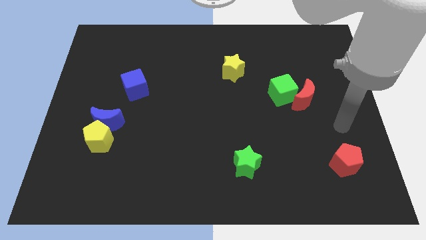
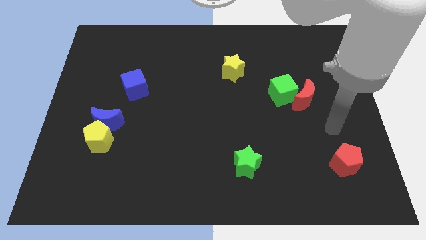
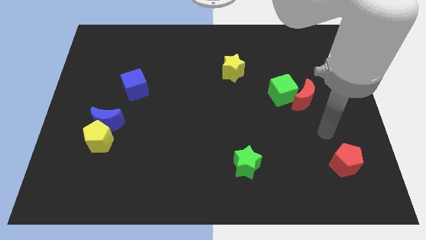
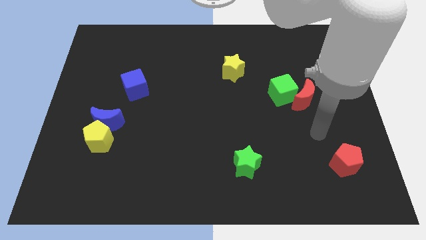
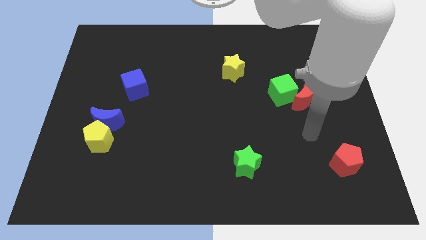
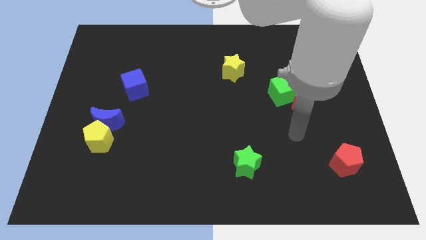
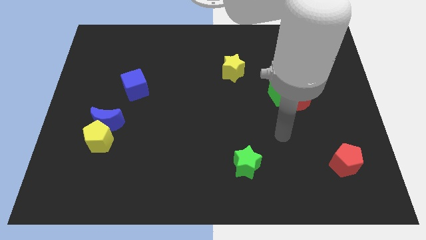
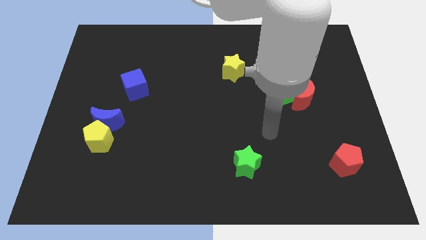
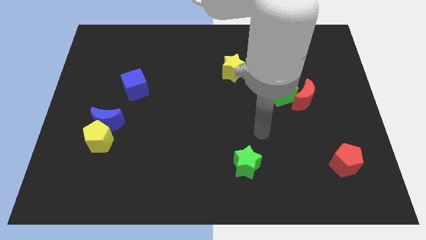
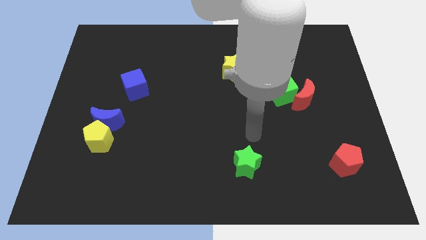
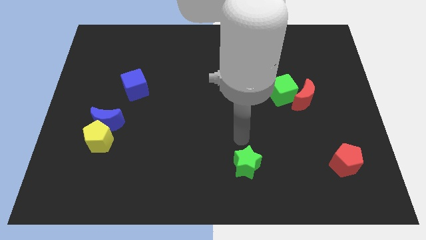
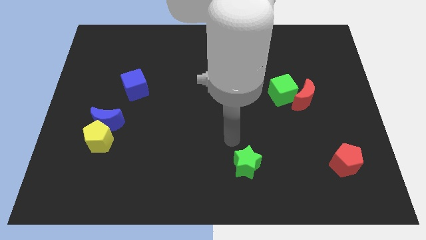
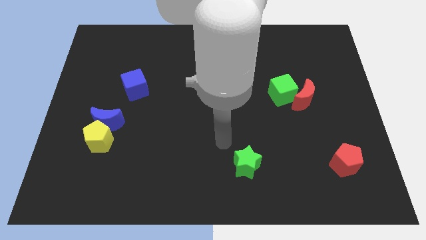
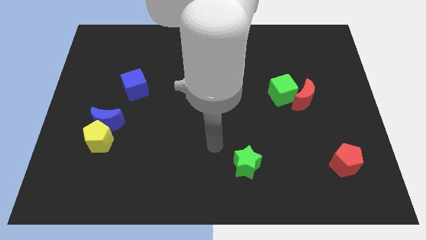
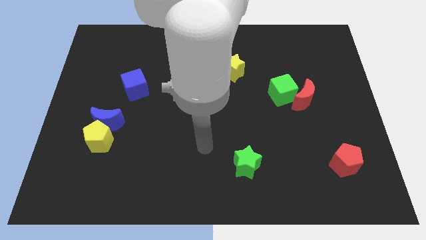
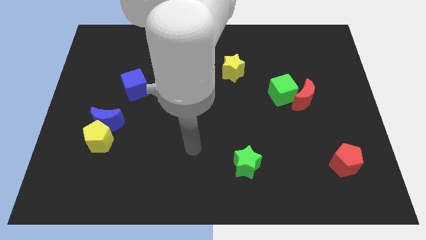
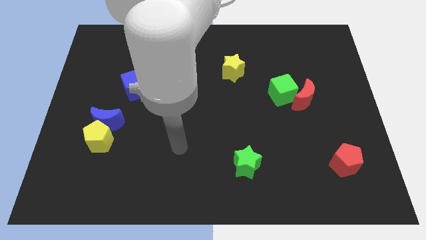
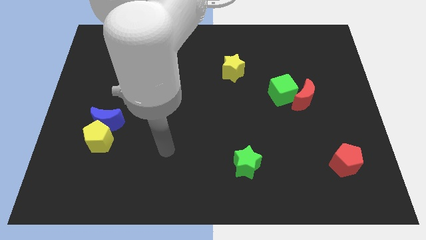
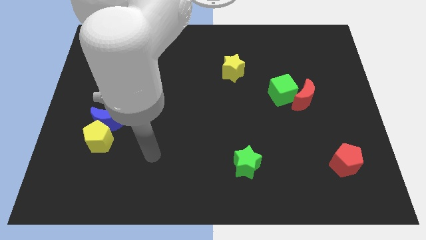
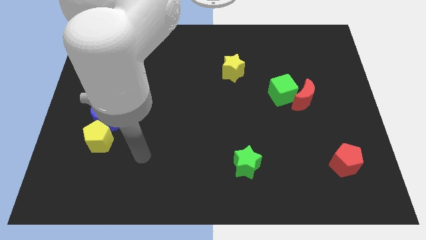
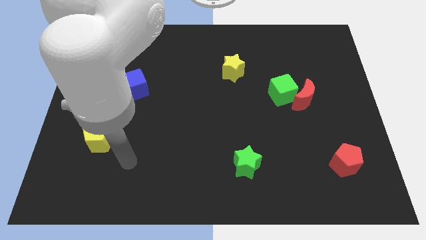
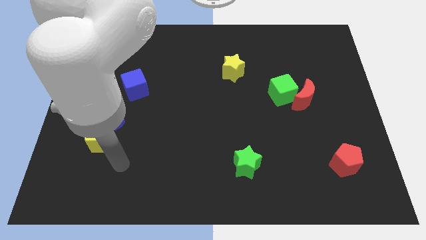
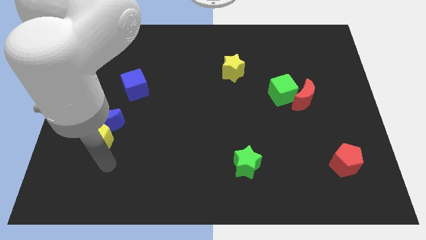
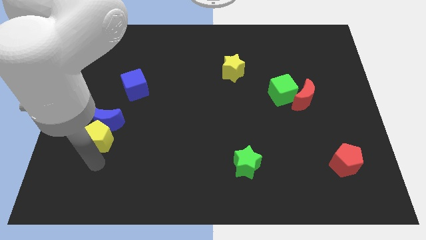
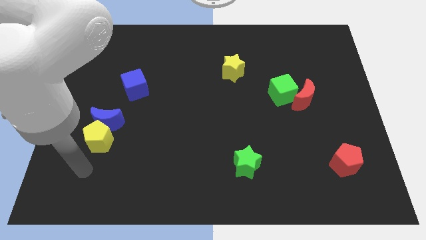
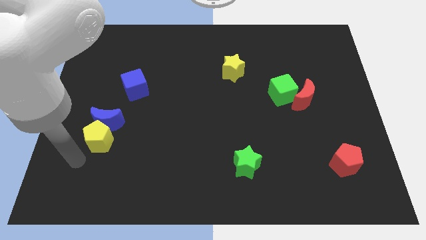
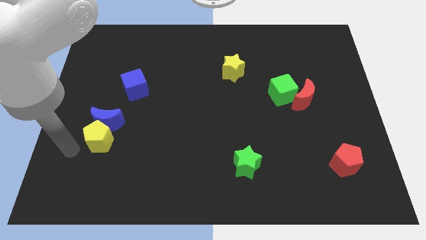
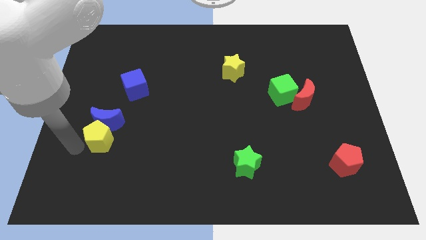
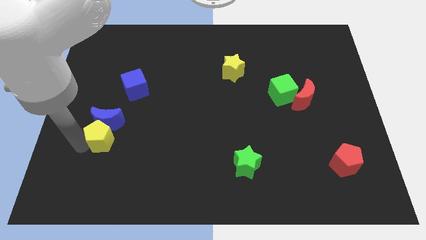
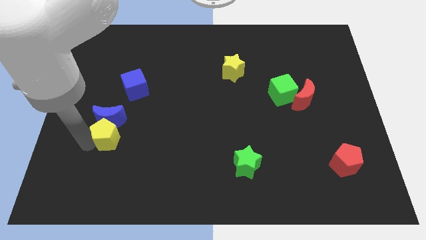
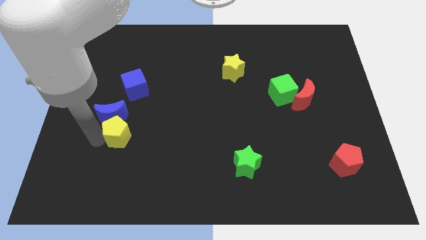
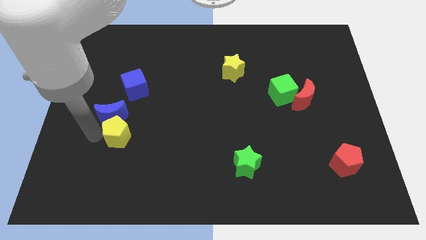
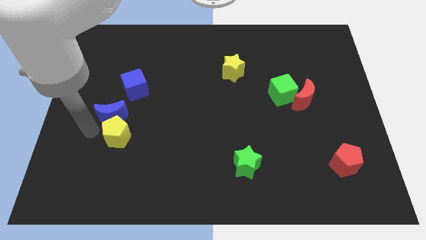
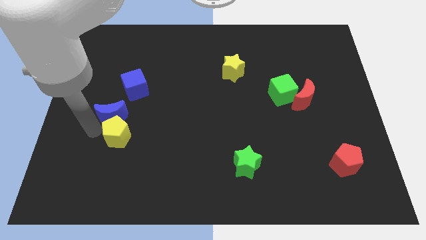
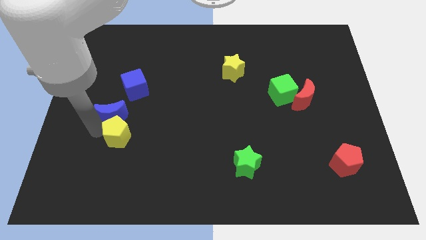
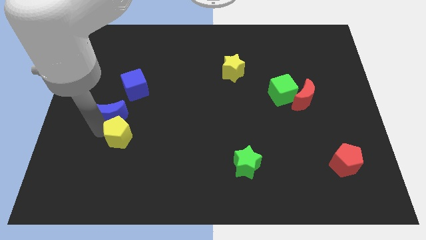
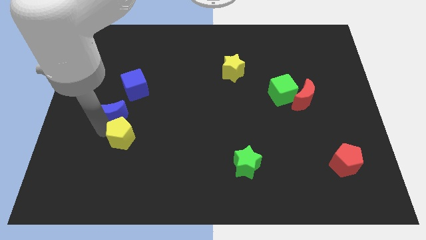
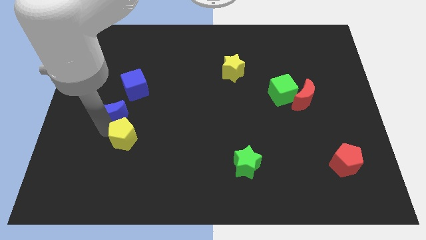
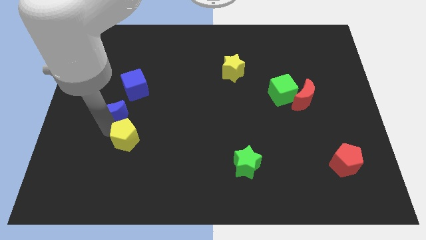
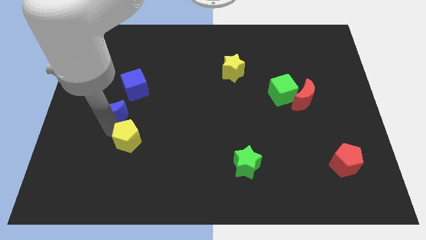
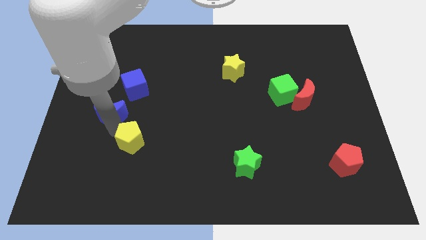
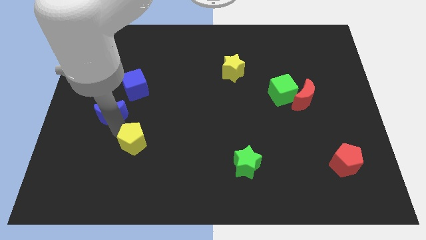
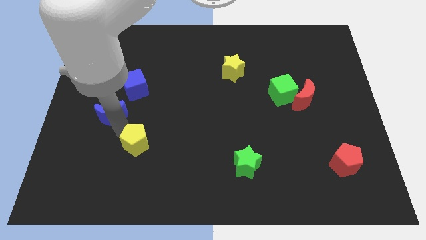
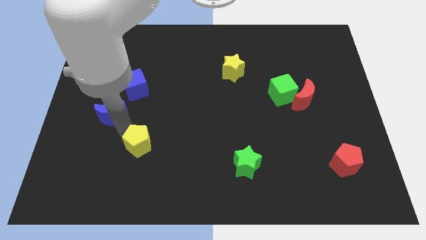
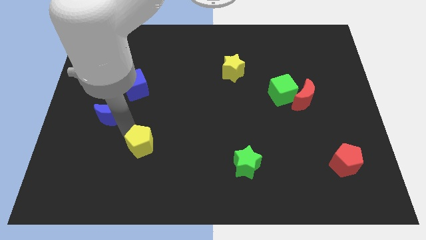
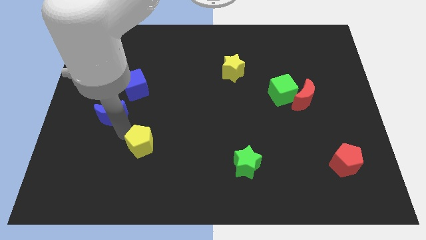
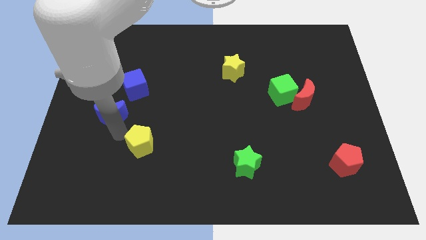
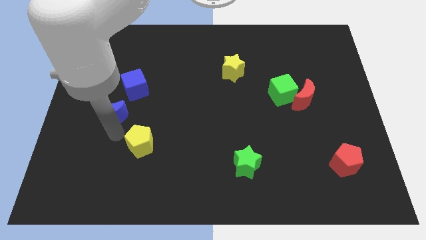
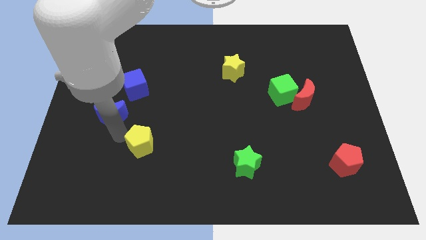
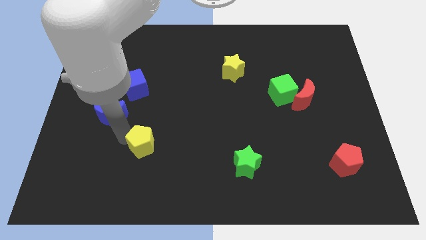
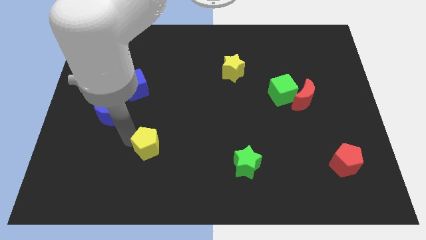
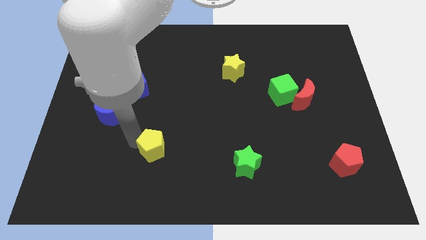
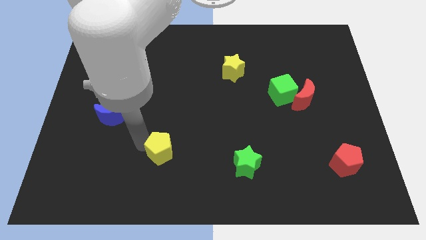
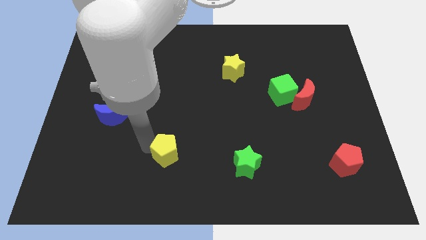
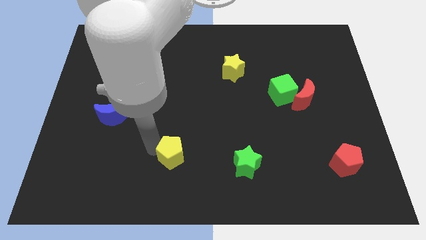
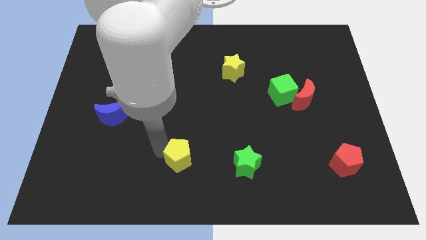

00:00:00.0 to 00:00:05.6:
slide the yellow pentagon left of the green star

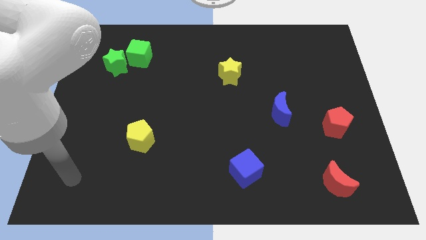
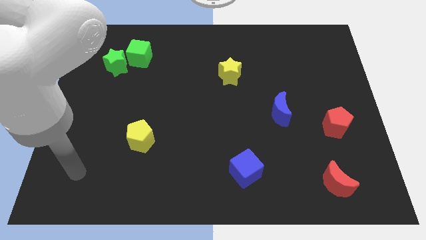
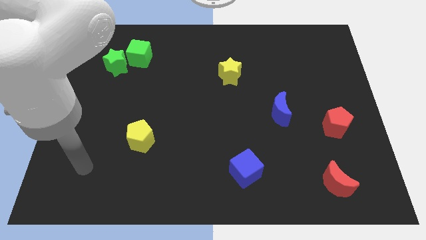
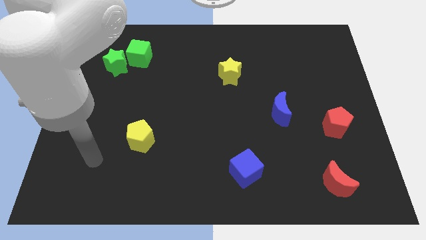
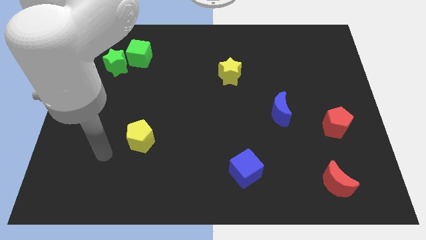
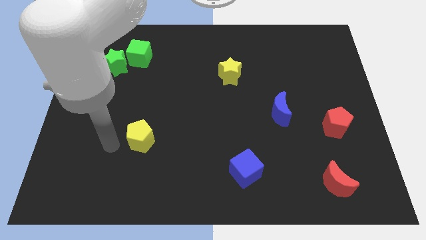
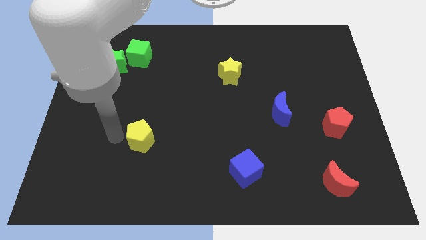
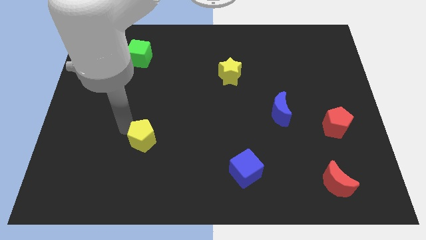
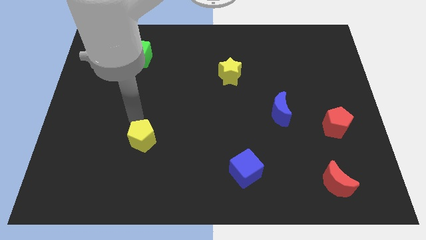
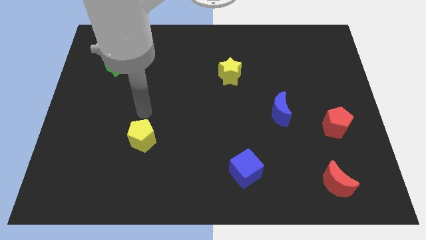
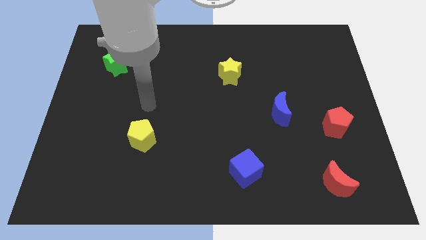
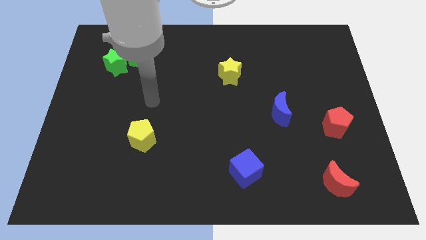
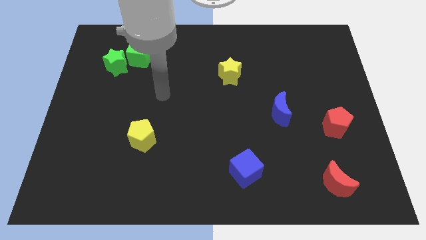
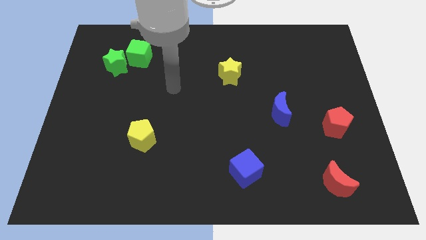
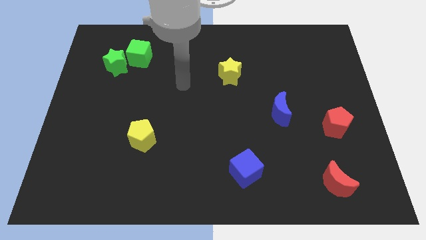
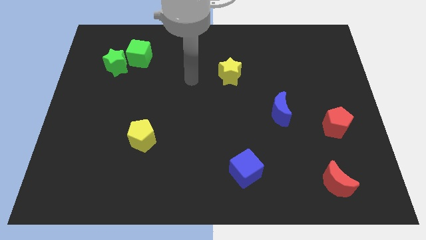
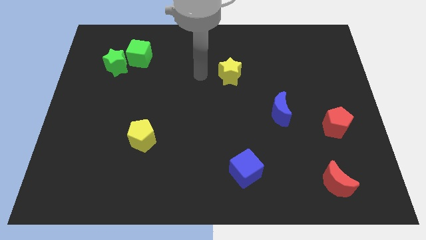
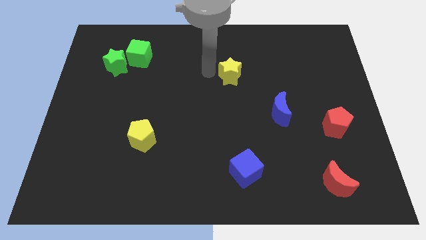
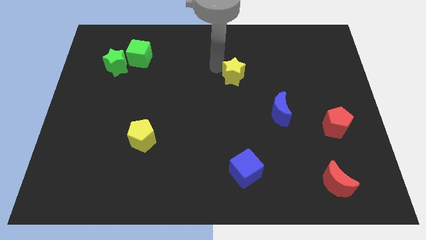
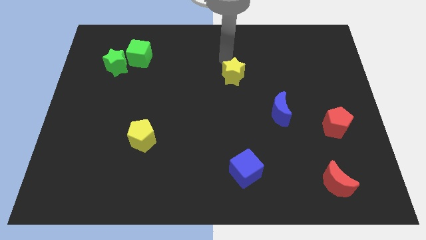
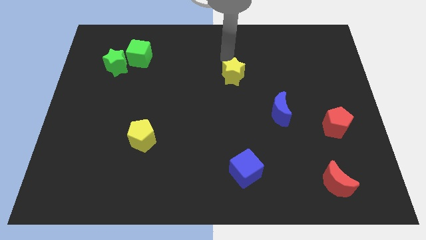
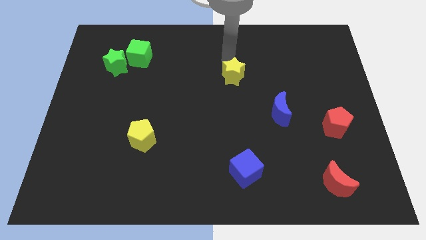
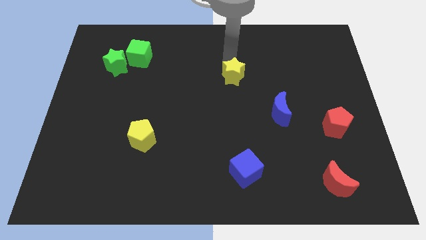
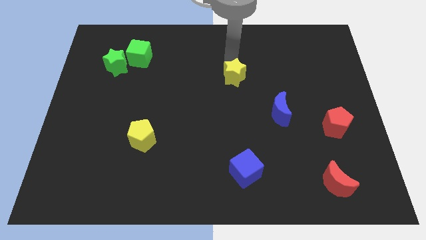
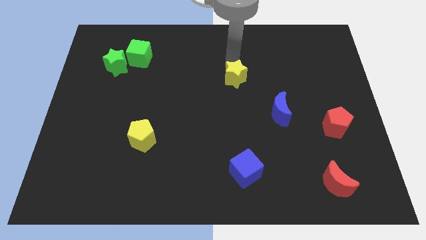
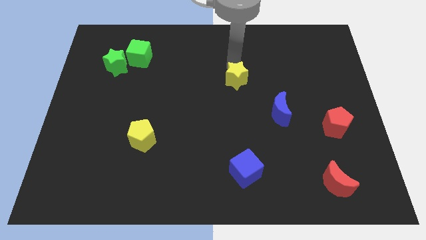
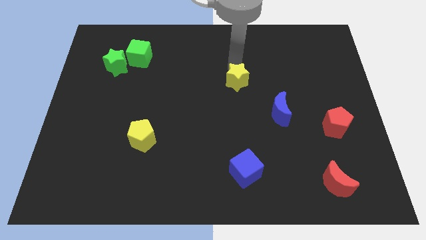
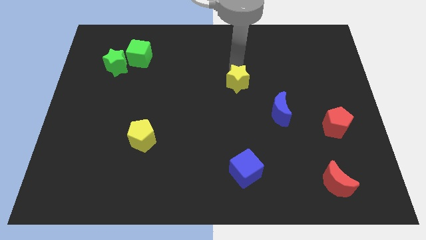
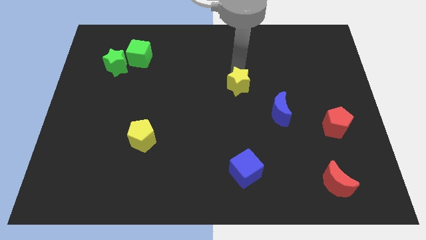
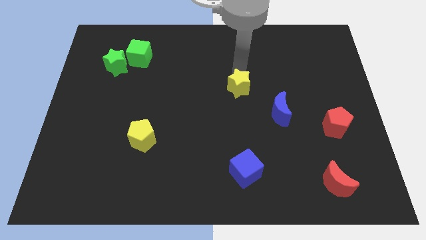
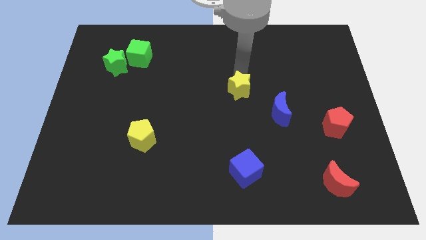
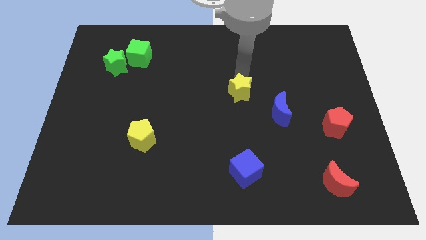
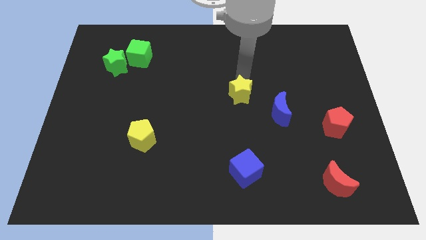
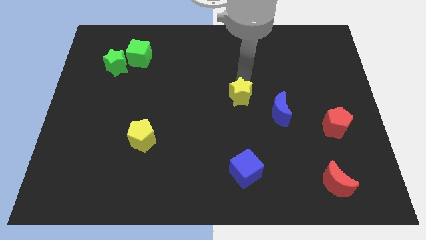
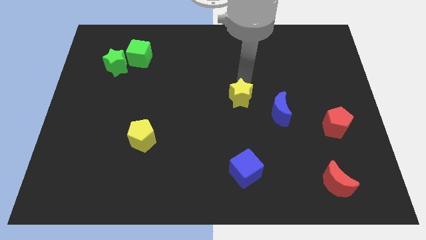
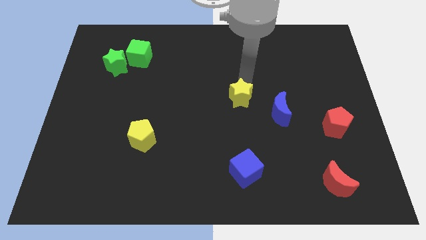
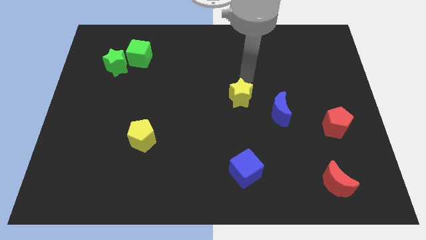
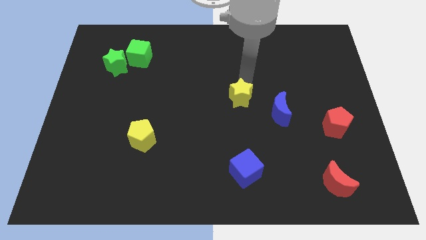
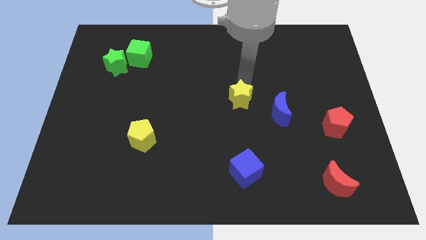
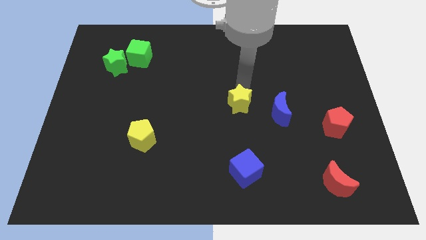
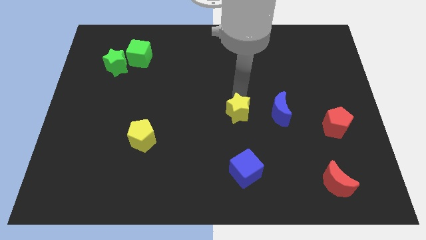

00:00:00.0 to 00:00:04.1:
slide the yellow star above the blue cube
